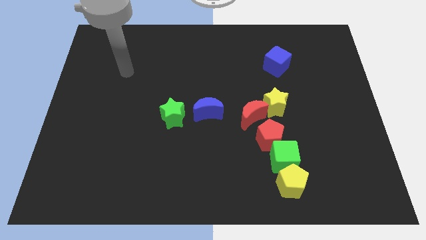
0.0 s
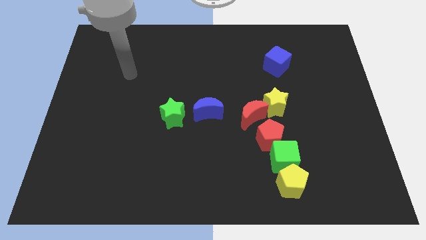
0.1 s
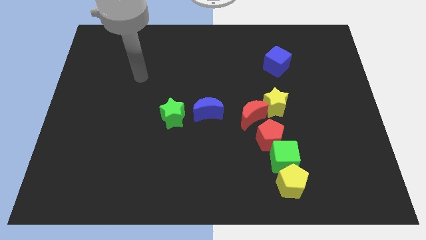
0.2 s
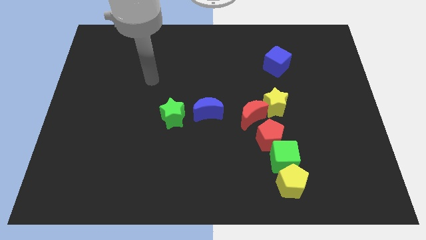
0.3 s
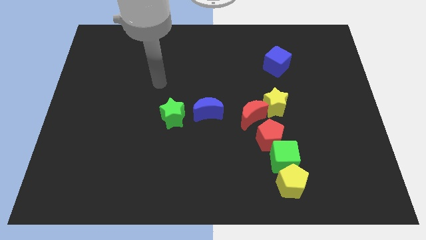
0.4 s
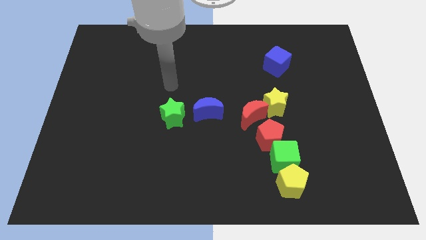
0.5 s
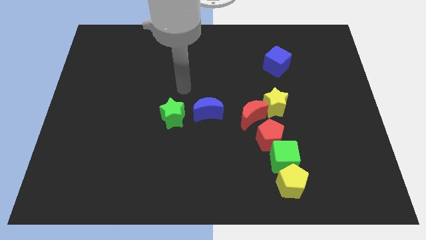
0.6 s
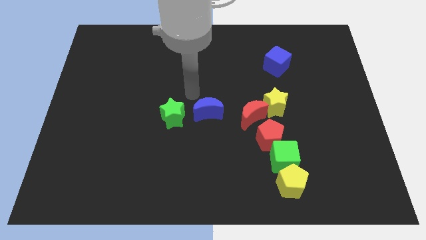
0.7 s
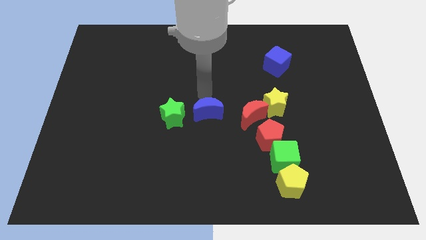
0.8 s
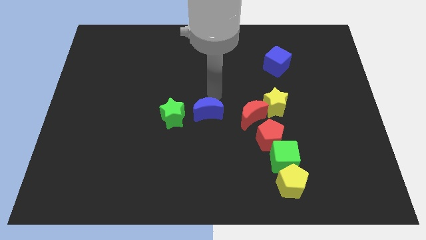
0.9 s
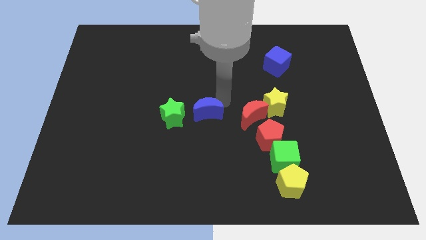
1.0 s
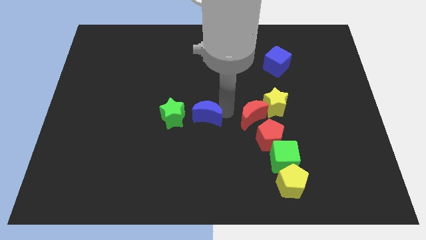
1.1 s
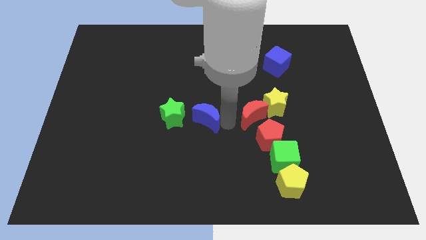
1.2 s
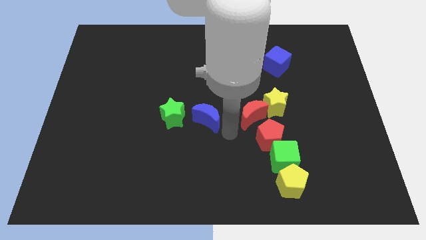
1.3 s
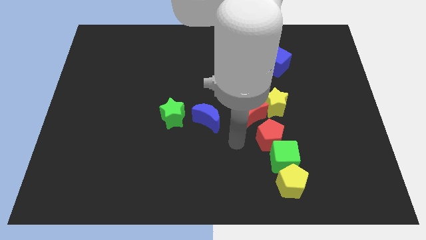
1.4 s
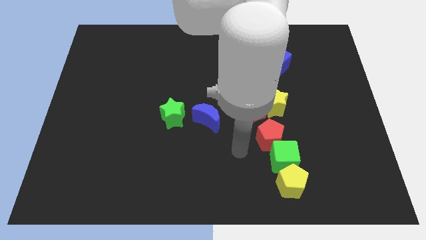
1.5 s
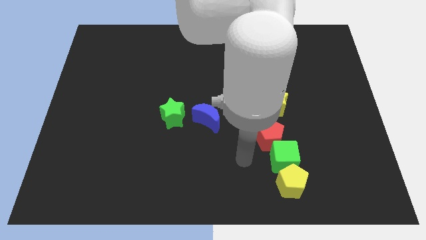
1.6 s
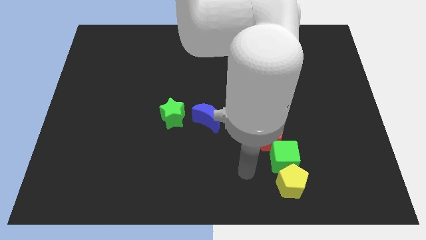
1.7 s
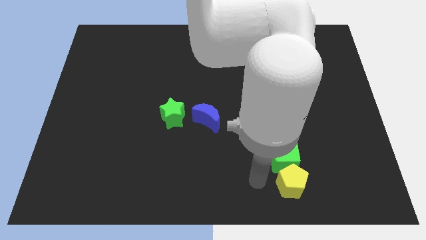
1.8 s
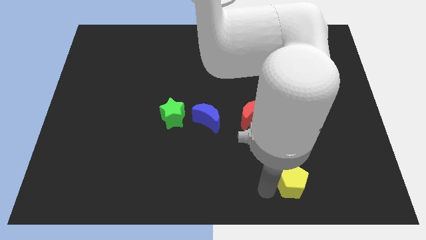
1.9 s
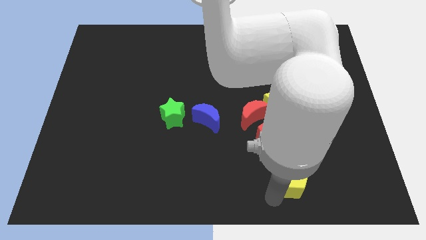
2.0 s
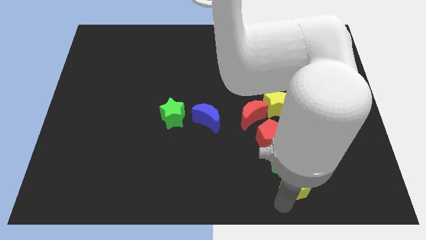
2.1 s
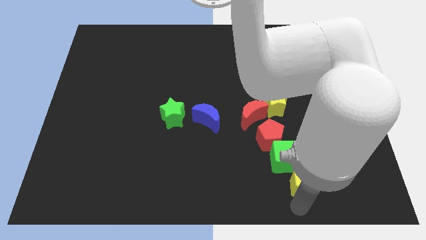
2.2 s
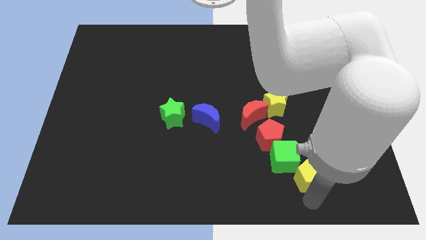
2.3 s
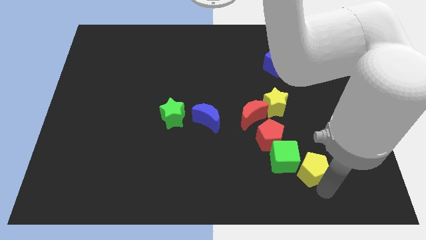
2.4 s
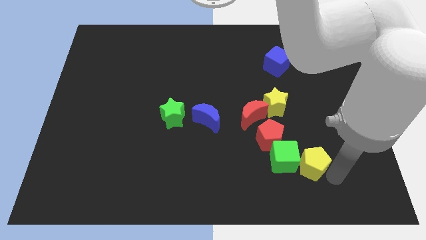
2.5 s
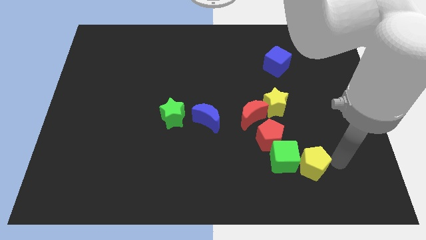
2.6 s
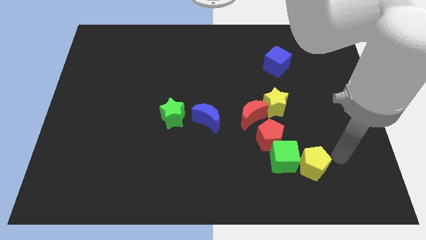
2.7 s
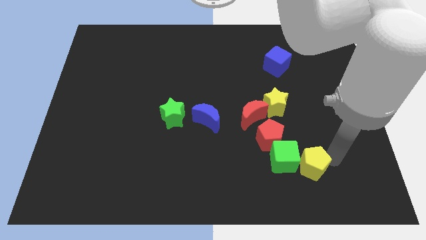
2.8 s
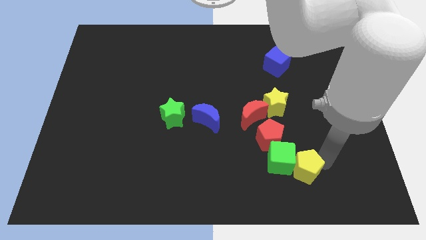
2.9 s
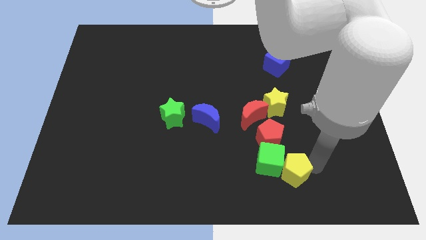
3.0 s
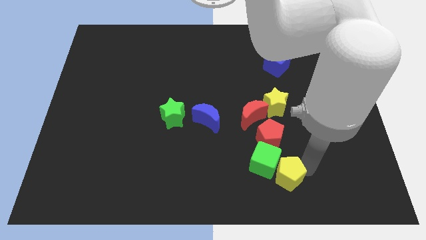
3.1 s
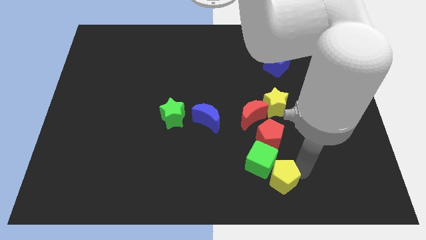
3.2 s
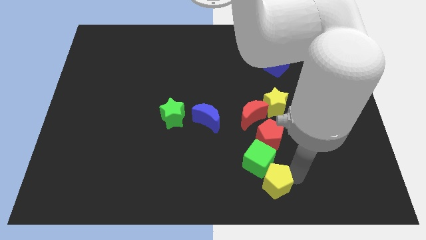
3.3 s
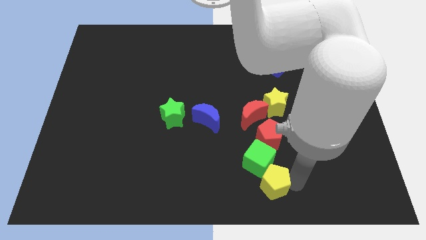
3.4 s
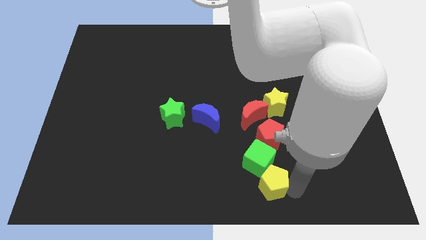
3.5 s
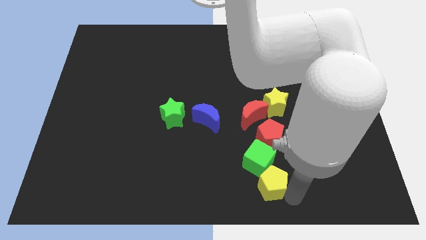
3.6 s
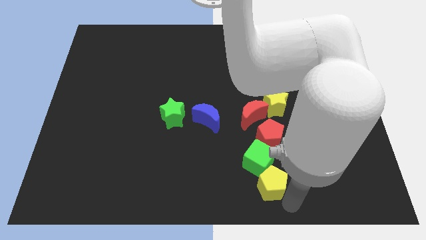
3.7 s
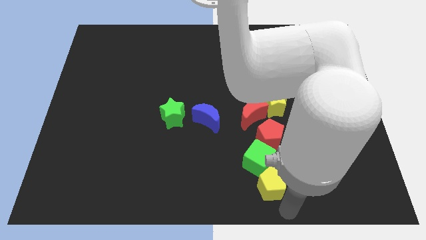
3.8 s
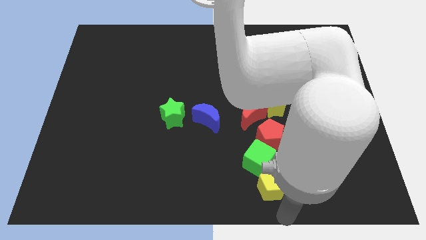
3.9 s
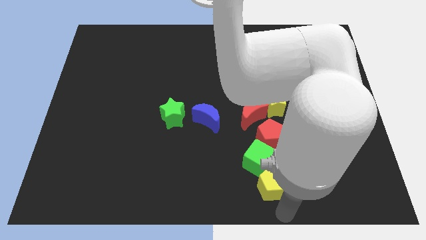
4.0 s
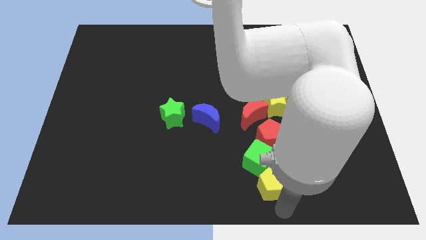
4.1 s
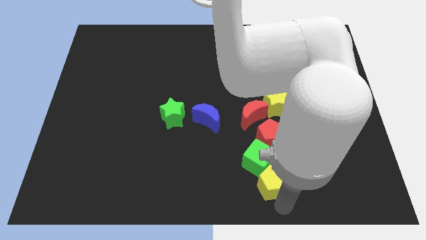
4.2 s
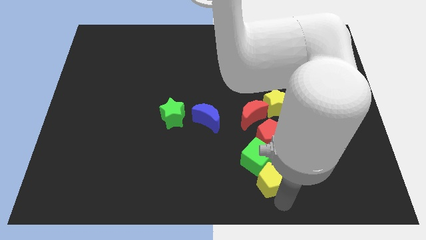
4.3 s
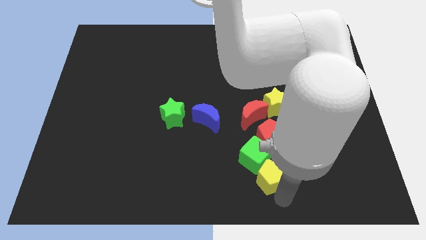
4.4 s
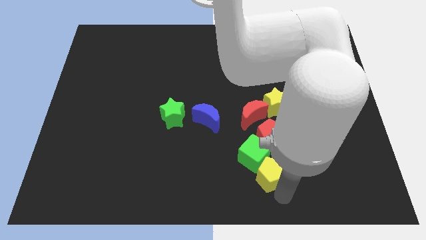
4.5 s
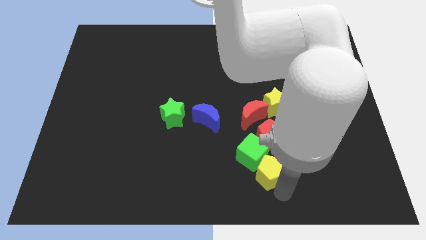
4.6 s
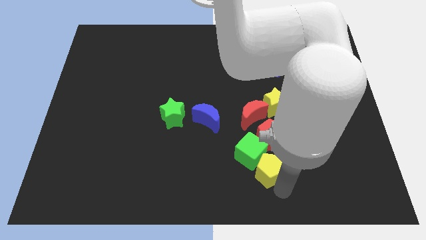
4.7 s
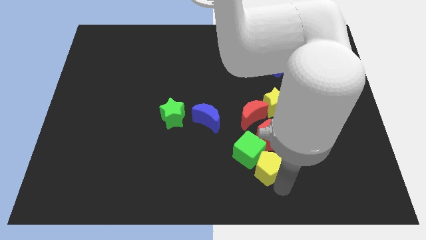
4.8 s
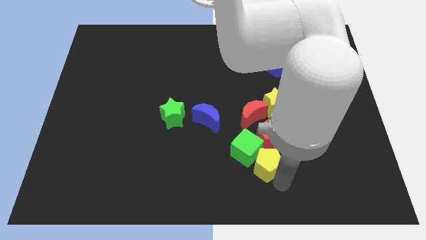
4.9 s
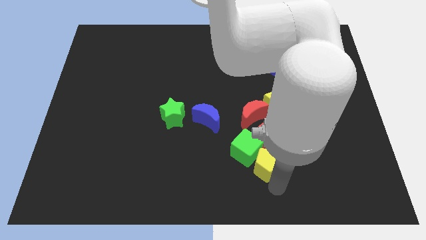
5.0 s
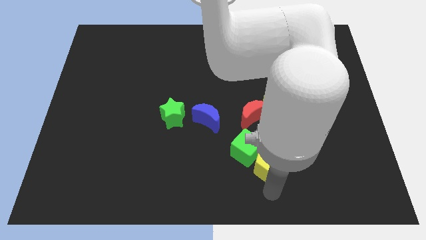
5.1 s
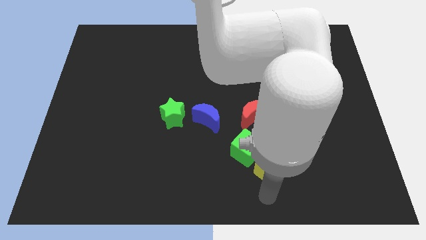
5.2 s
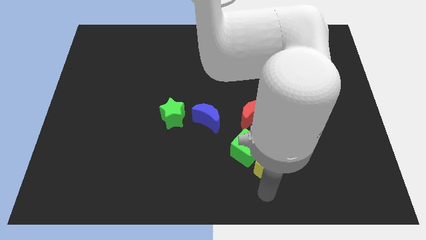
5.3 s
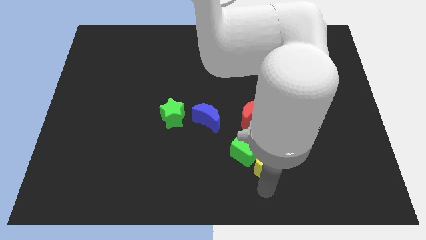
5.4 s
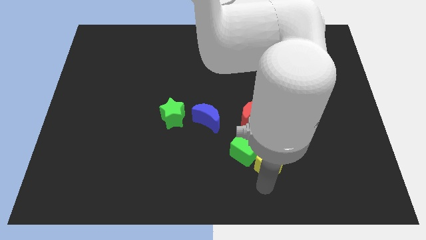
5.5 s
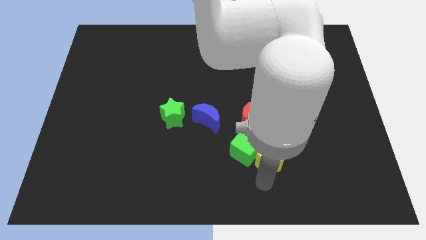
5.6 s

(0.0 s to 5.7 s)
push the yellow pentagon close to the red pentagon

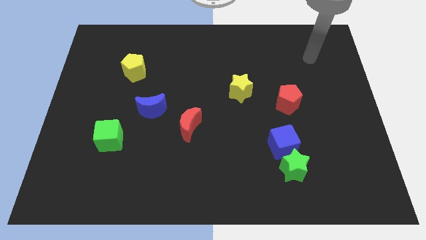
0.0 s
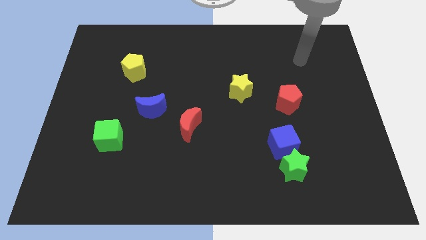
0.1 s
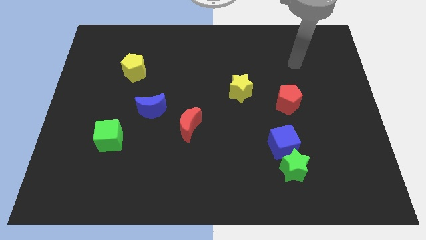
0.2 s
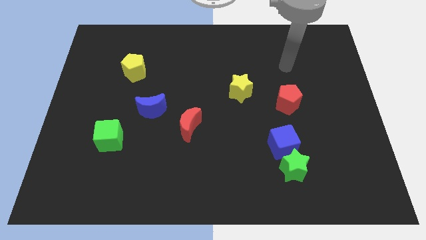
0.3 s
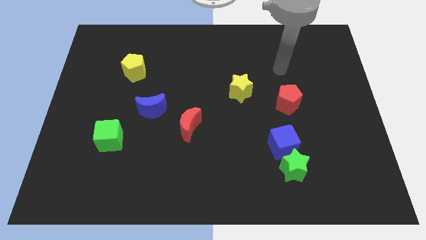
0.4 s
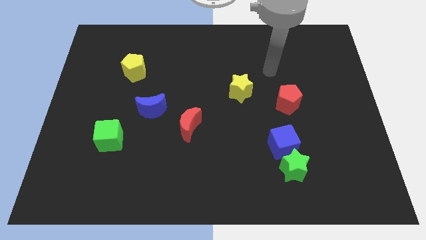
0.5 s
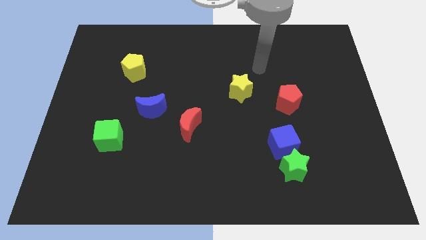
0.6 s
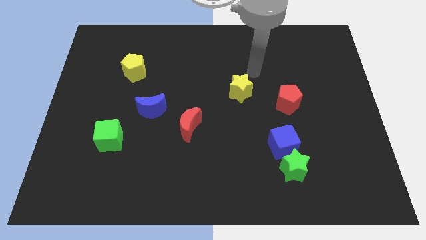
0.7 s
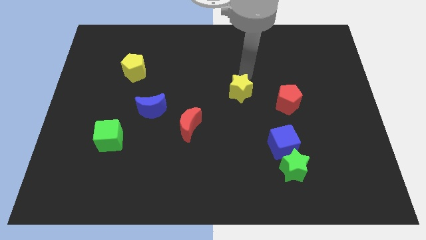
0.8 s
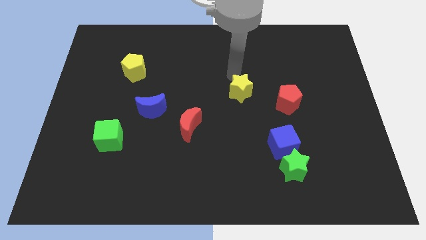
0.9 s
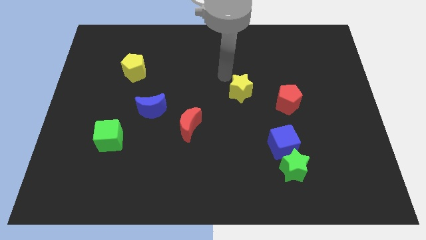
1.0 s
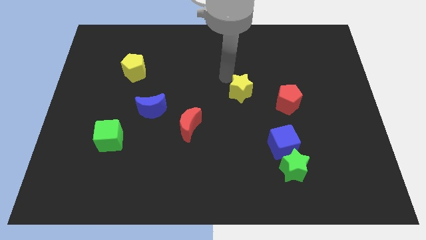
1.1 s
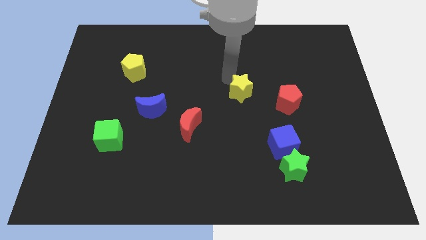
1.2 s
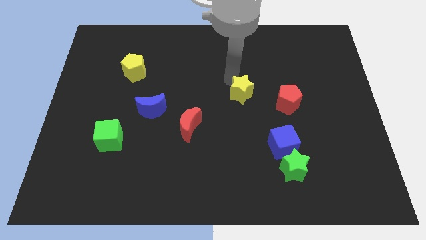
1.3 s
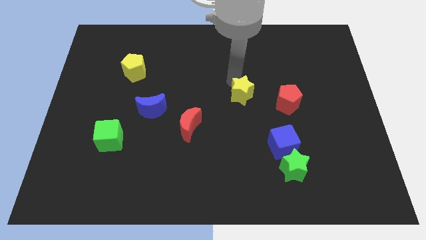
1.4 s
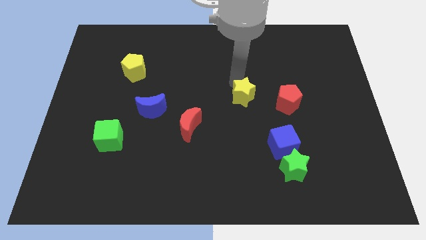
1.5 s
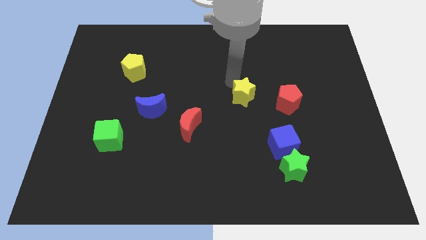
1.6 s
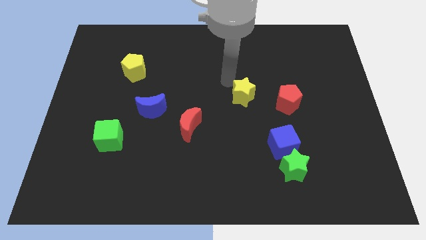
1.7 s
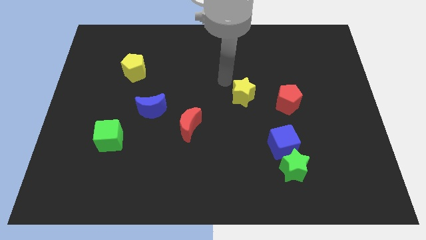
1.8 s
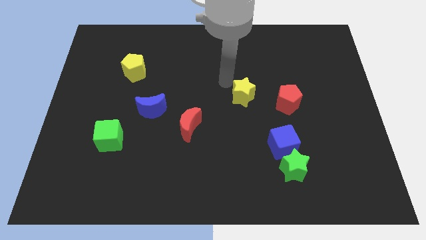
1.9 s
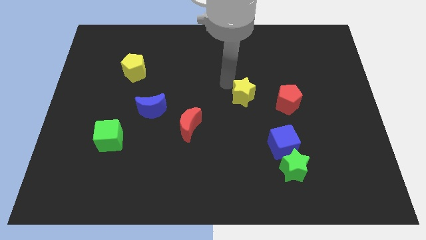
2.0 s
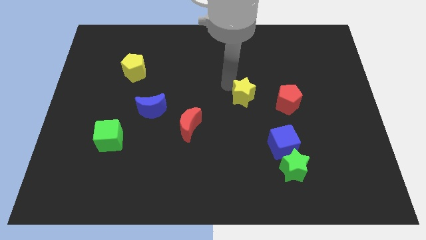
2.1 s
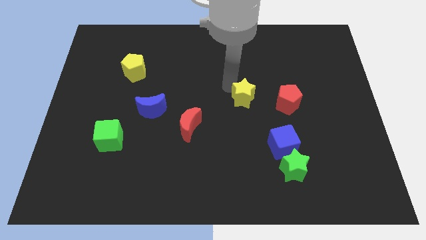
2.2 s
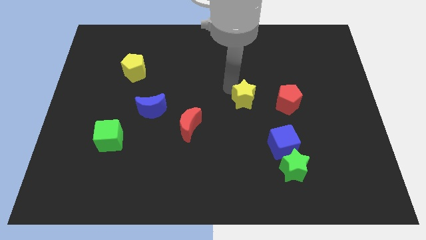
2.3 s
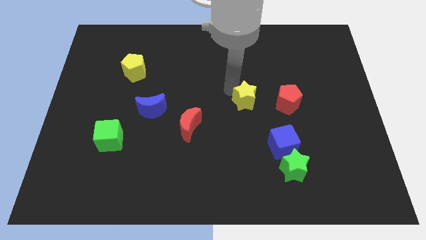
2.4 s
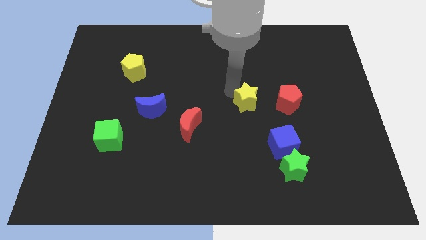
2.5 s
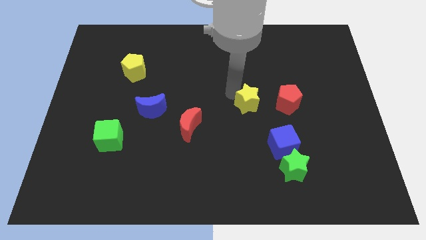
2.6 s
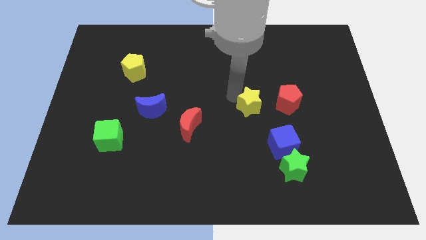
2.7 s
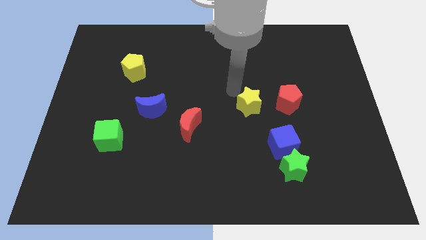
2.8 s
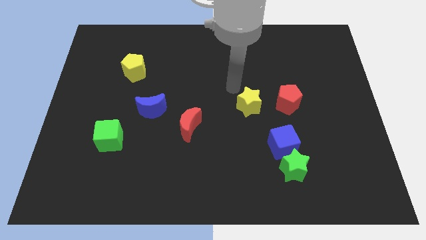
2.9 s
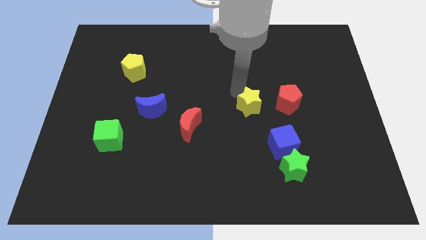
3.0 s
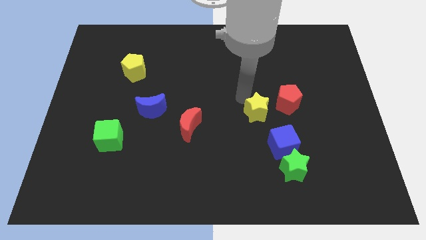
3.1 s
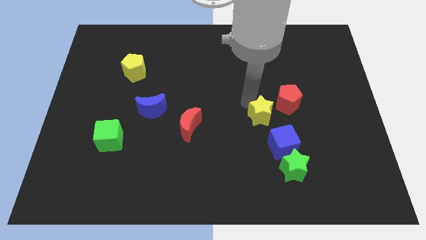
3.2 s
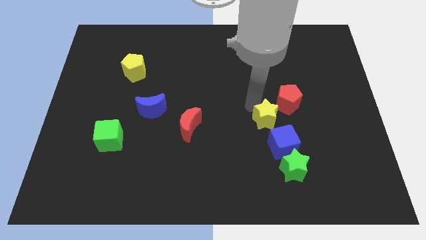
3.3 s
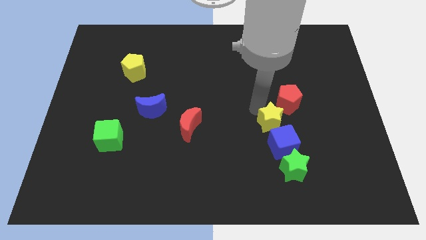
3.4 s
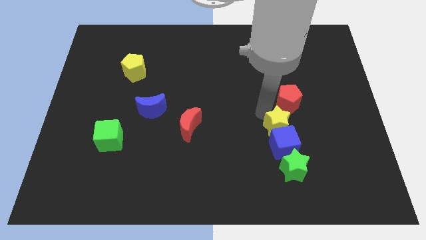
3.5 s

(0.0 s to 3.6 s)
push the yellow star close to the blue cube
